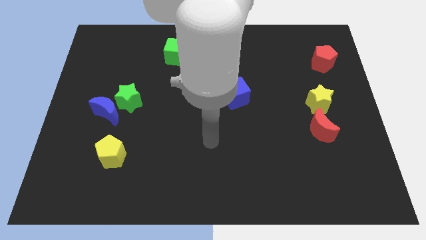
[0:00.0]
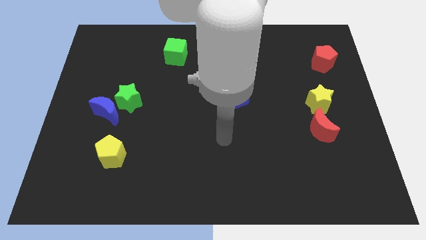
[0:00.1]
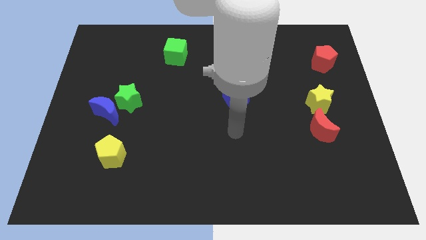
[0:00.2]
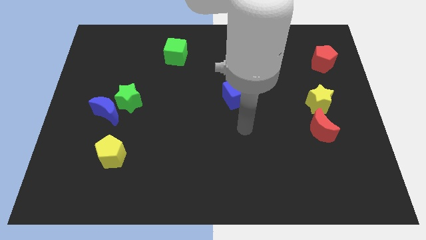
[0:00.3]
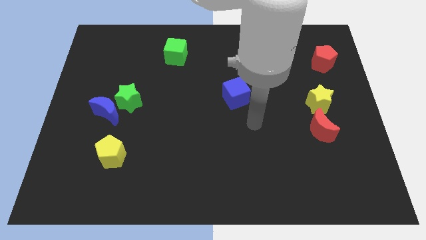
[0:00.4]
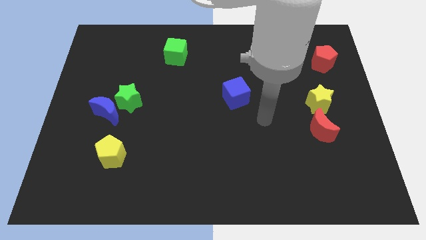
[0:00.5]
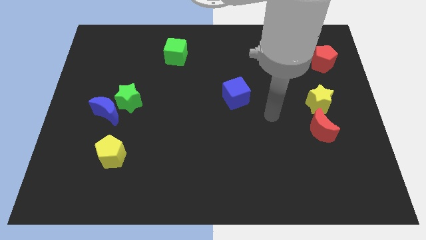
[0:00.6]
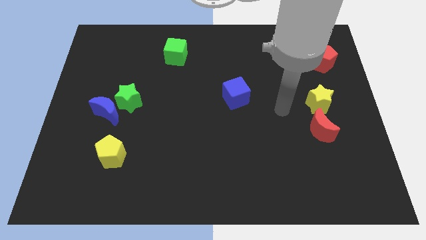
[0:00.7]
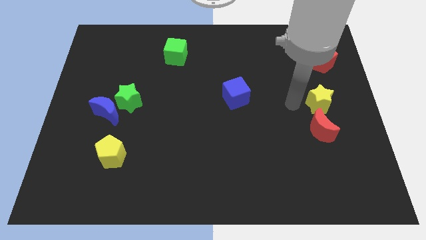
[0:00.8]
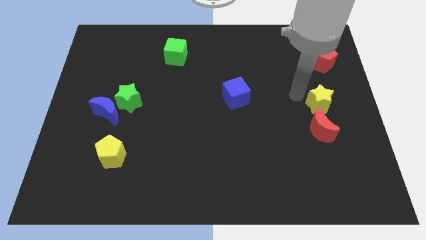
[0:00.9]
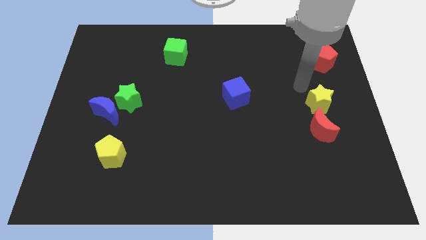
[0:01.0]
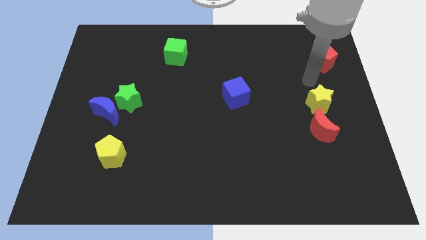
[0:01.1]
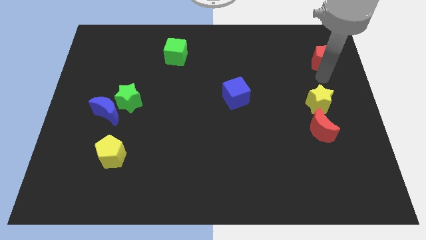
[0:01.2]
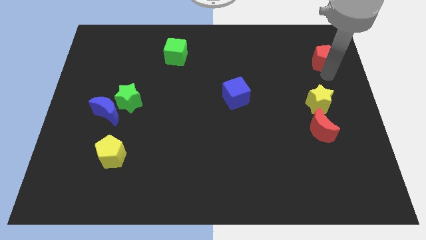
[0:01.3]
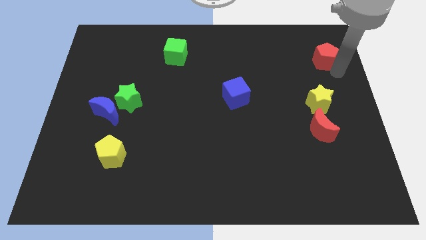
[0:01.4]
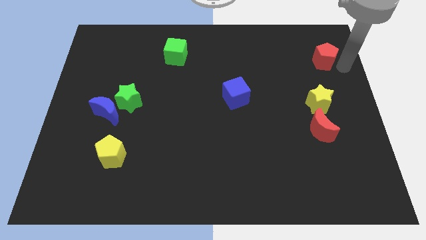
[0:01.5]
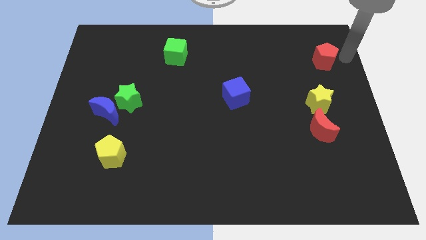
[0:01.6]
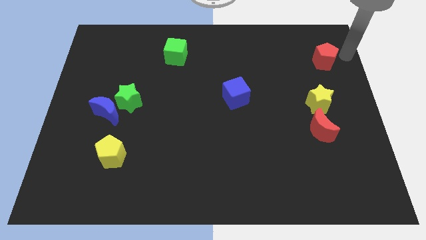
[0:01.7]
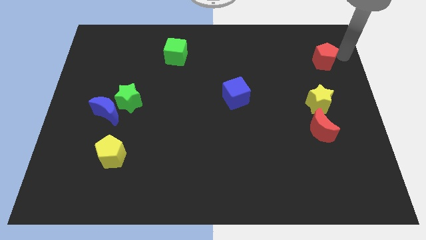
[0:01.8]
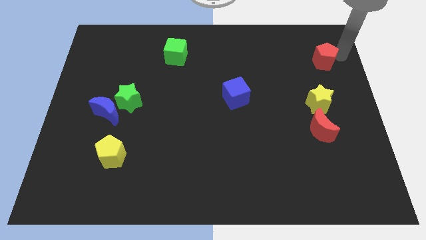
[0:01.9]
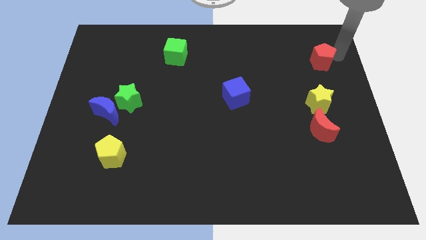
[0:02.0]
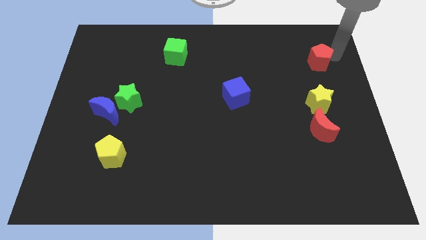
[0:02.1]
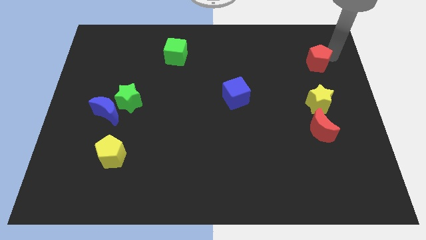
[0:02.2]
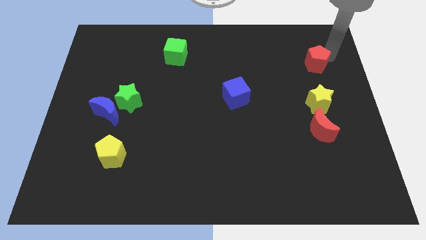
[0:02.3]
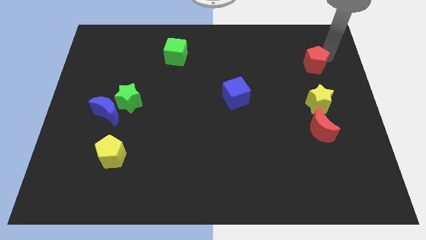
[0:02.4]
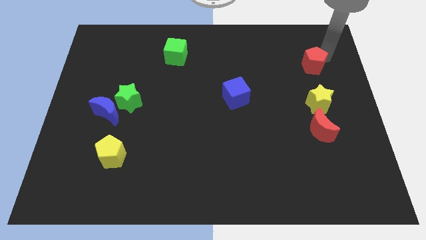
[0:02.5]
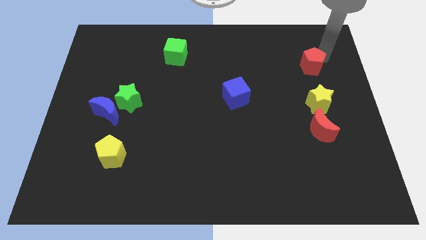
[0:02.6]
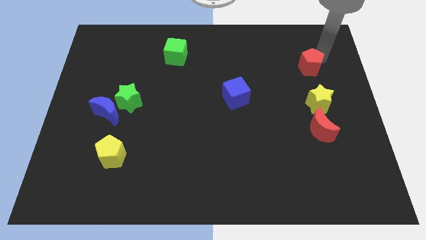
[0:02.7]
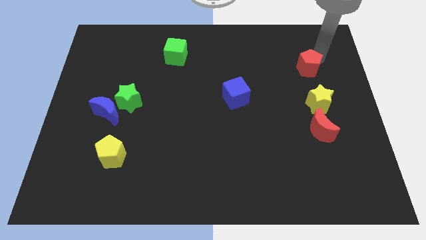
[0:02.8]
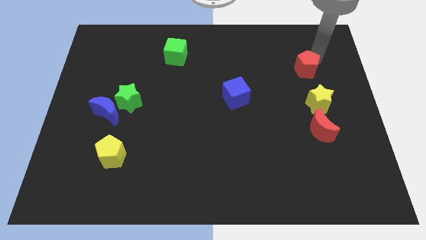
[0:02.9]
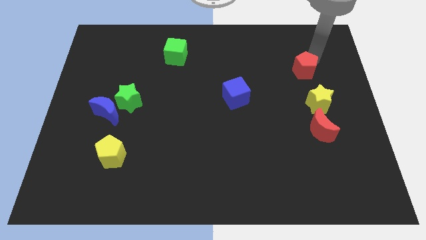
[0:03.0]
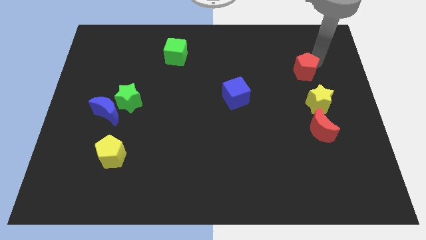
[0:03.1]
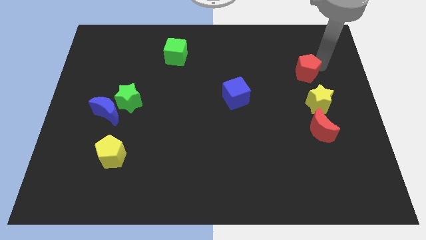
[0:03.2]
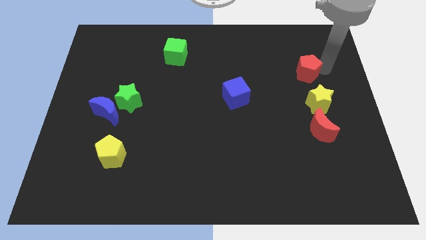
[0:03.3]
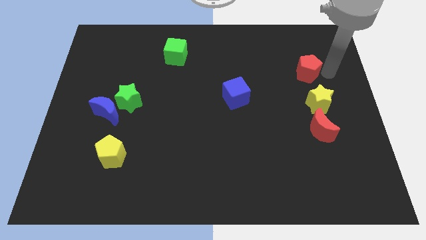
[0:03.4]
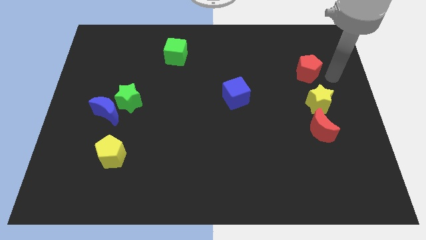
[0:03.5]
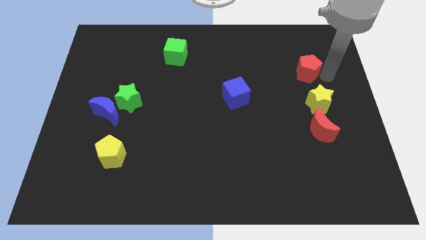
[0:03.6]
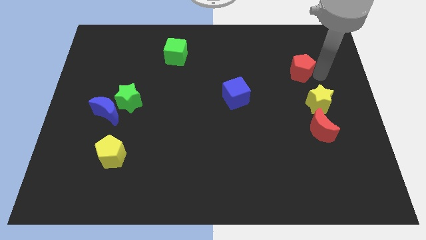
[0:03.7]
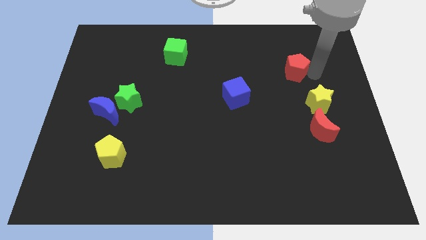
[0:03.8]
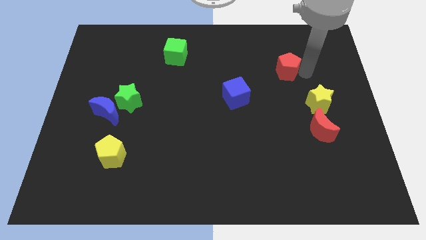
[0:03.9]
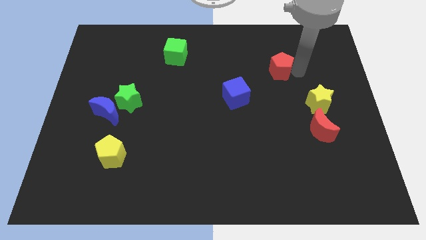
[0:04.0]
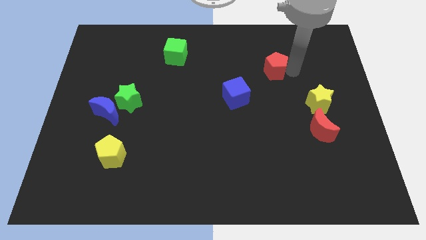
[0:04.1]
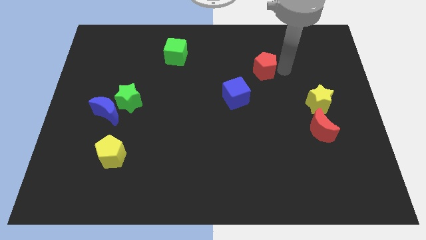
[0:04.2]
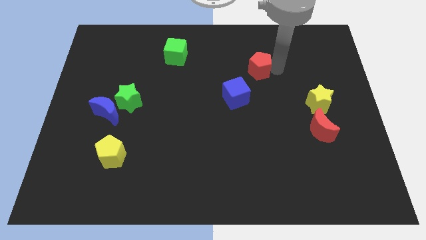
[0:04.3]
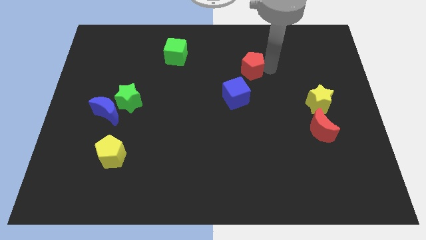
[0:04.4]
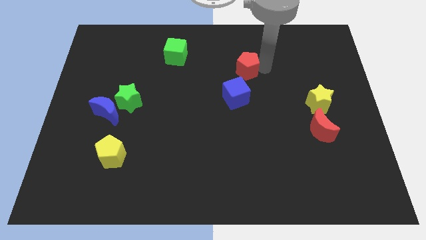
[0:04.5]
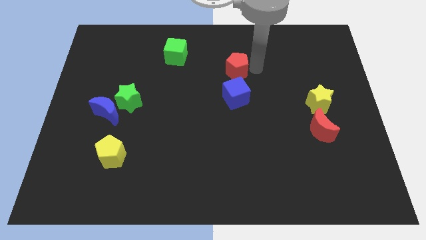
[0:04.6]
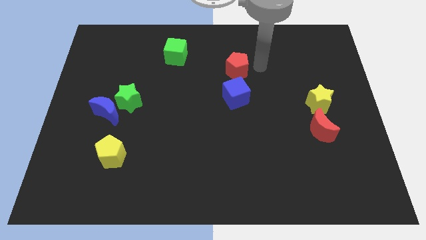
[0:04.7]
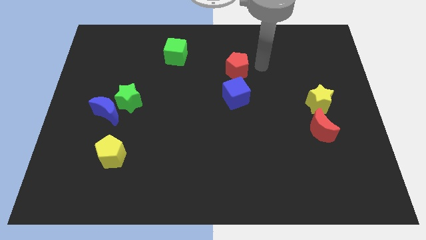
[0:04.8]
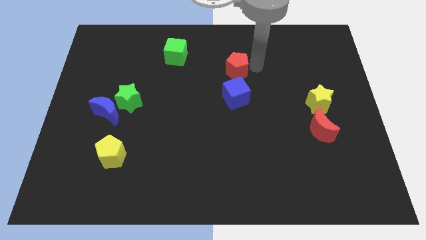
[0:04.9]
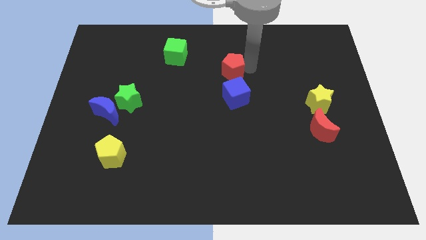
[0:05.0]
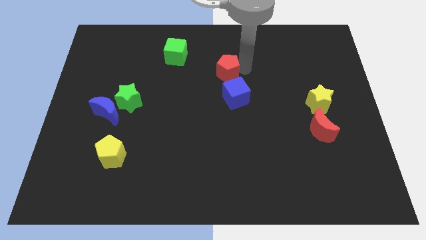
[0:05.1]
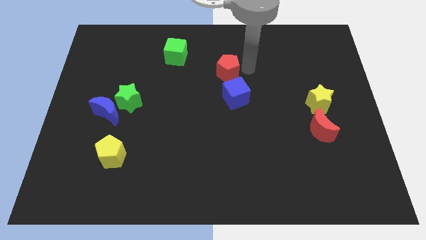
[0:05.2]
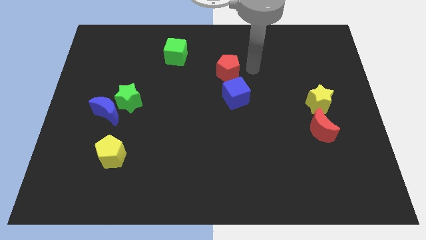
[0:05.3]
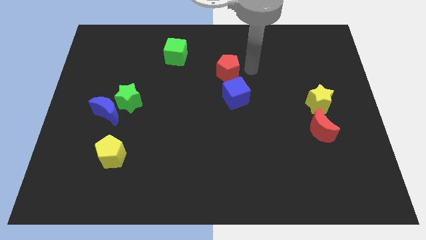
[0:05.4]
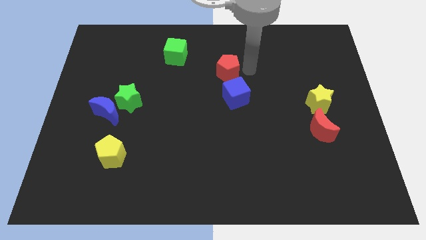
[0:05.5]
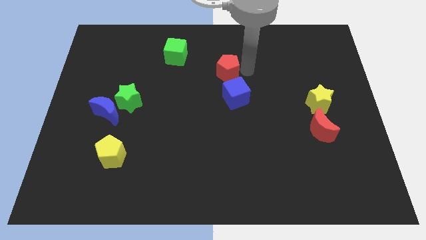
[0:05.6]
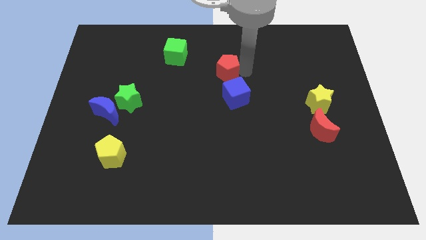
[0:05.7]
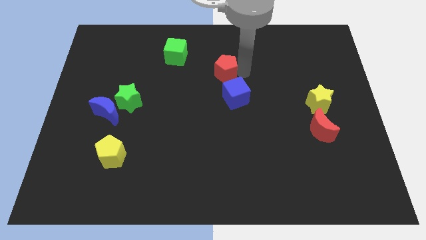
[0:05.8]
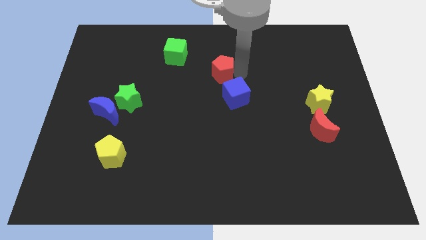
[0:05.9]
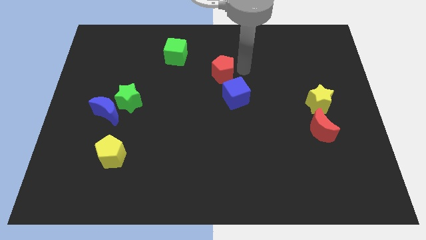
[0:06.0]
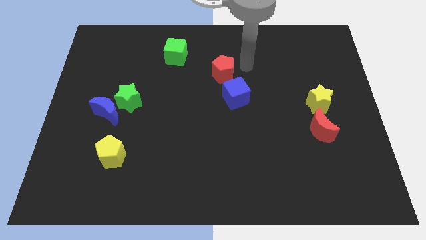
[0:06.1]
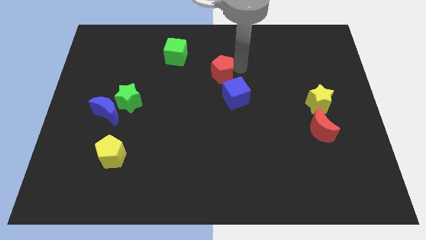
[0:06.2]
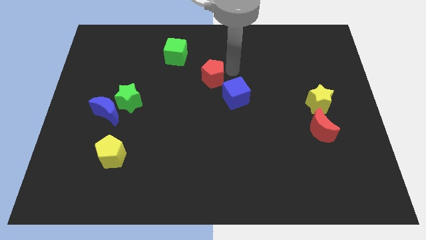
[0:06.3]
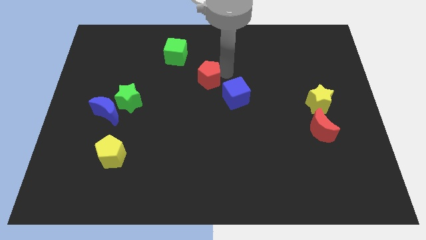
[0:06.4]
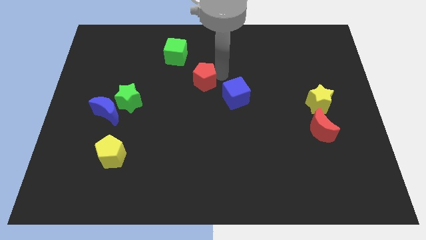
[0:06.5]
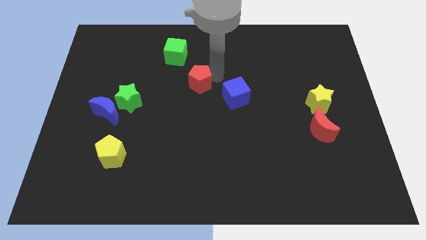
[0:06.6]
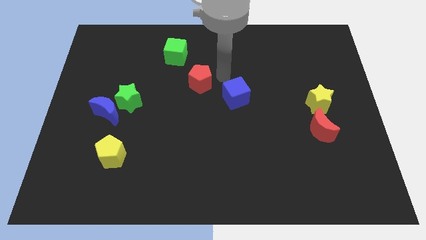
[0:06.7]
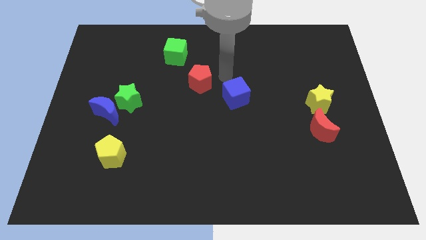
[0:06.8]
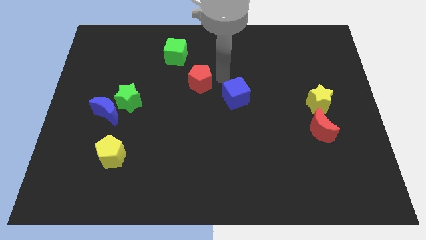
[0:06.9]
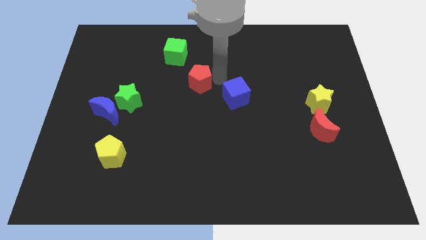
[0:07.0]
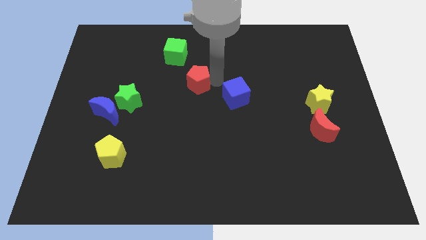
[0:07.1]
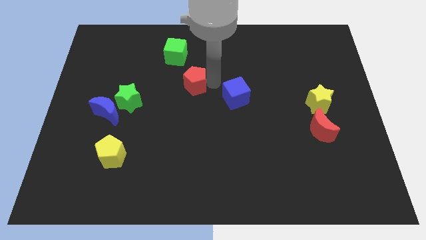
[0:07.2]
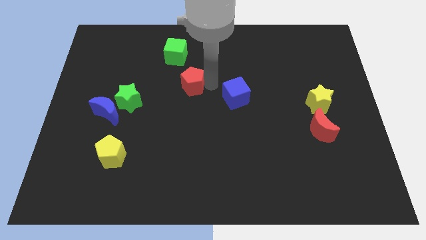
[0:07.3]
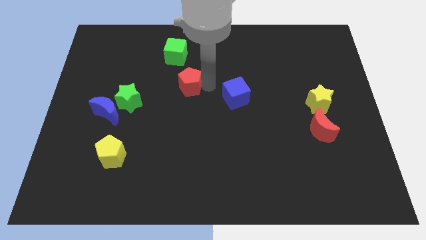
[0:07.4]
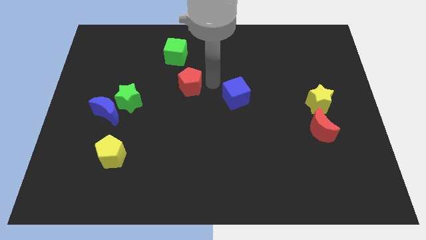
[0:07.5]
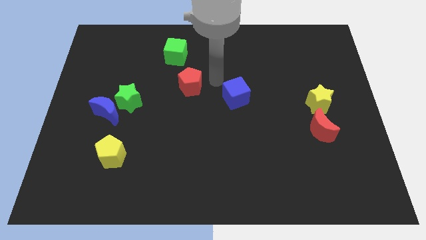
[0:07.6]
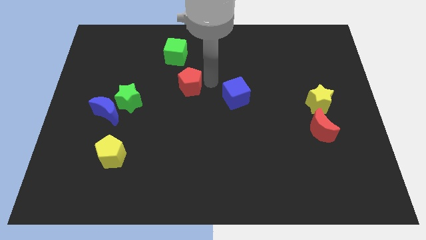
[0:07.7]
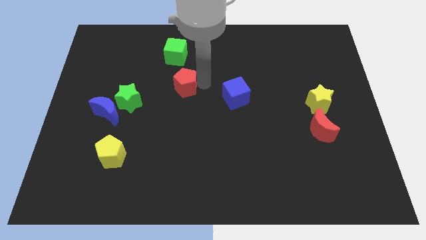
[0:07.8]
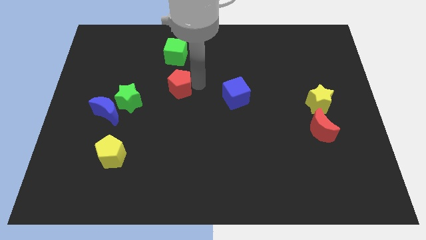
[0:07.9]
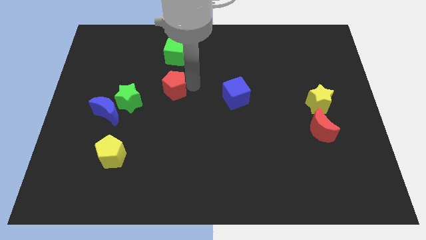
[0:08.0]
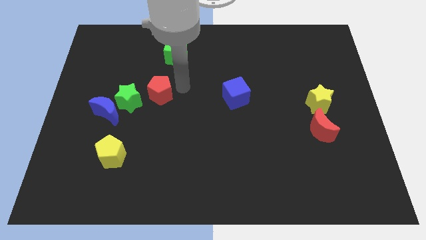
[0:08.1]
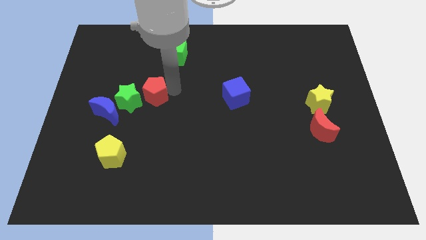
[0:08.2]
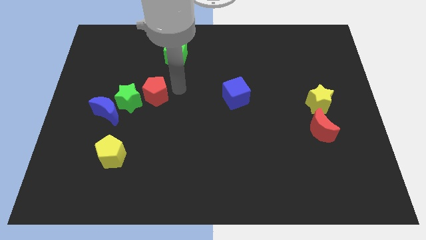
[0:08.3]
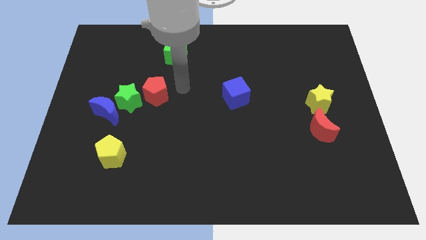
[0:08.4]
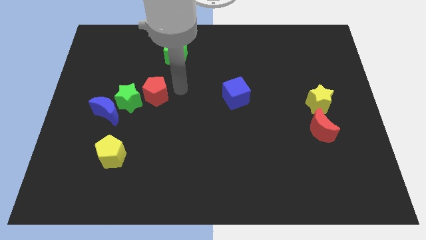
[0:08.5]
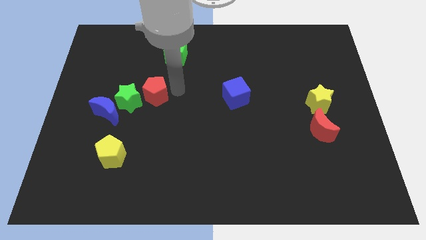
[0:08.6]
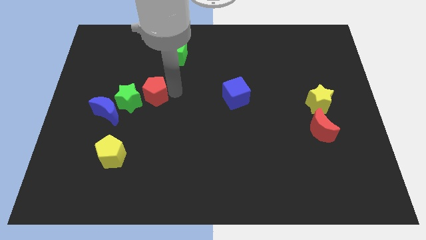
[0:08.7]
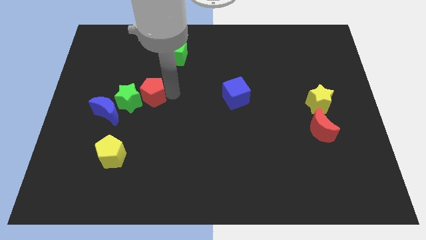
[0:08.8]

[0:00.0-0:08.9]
move the red pentagon close to the green star
